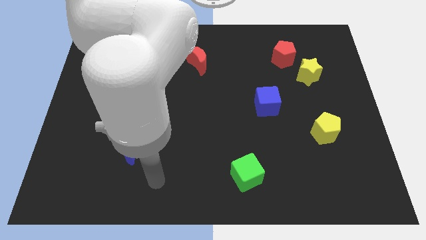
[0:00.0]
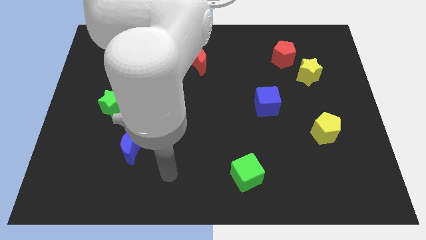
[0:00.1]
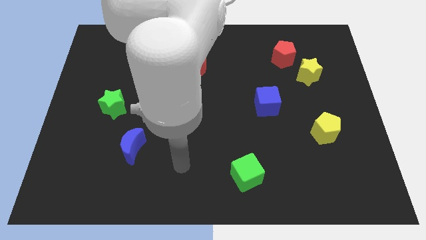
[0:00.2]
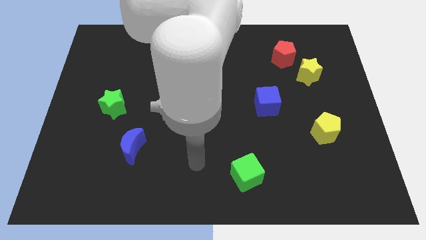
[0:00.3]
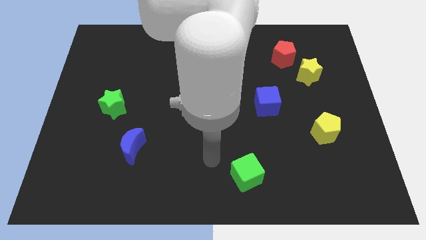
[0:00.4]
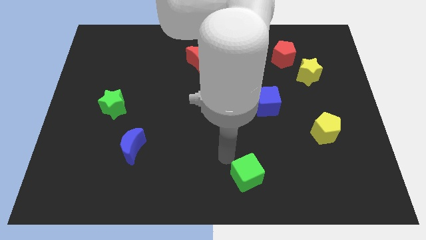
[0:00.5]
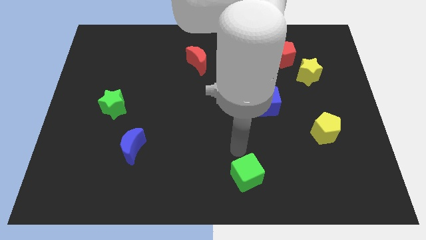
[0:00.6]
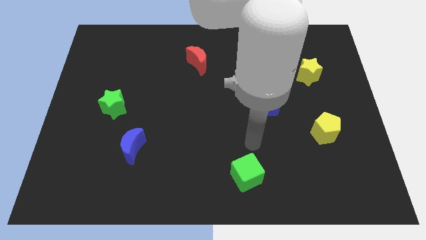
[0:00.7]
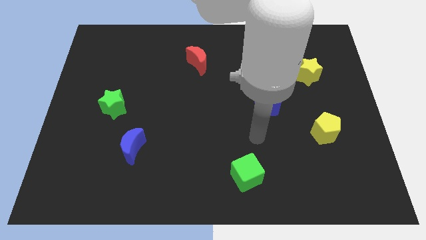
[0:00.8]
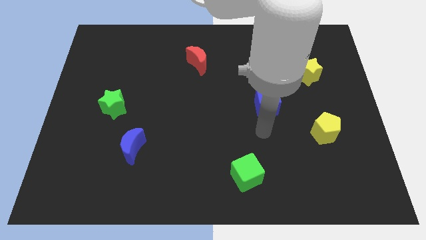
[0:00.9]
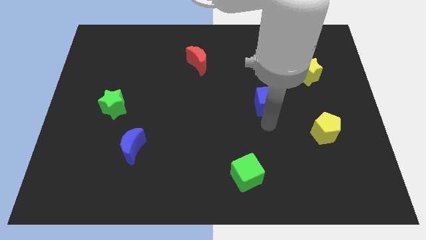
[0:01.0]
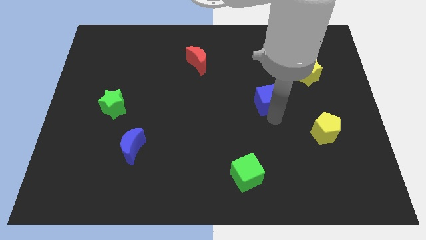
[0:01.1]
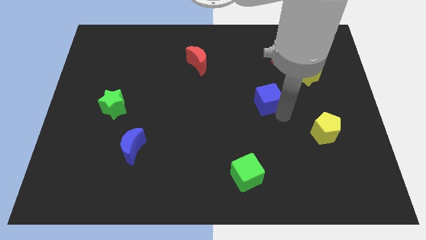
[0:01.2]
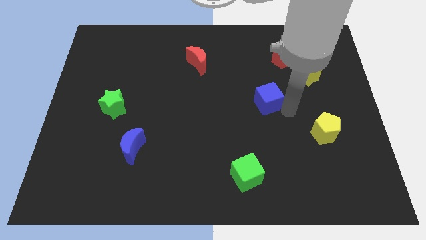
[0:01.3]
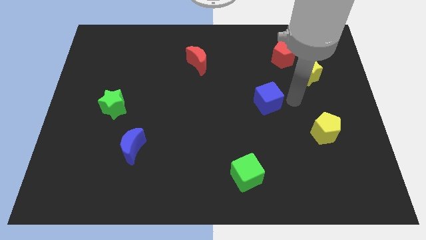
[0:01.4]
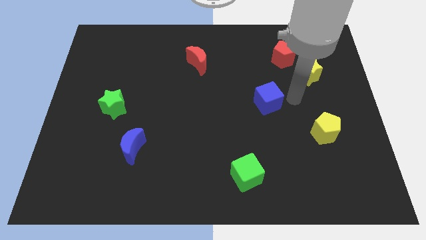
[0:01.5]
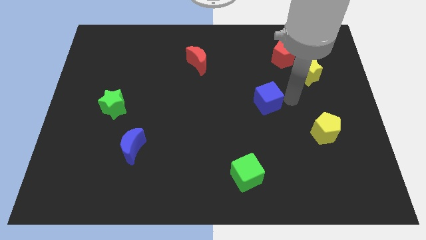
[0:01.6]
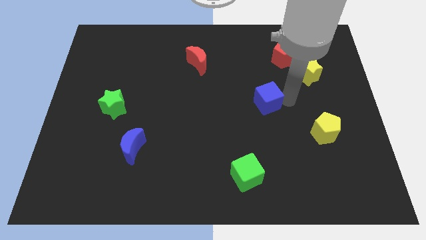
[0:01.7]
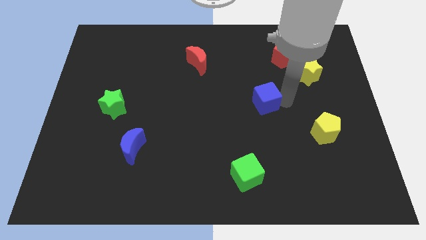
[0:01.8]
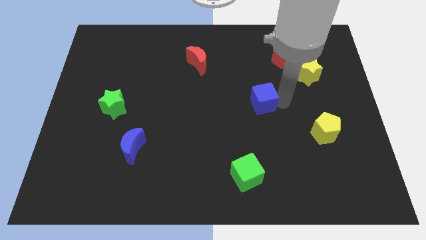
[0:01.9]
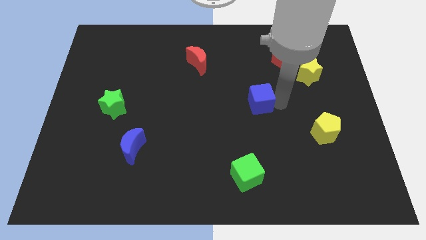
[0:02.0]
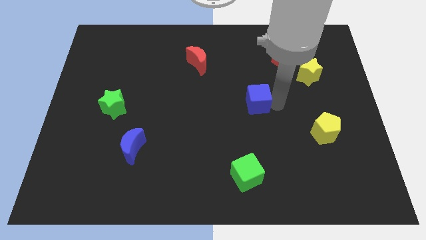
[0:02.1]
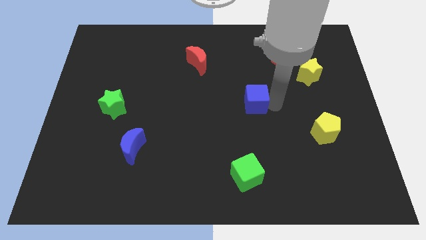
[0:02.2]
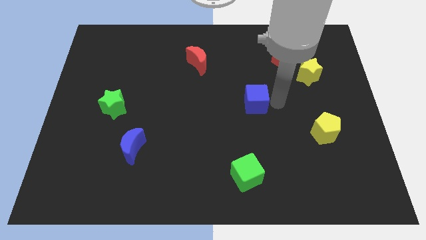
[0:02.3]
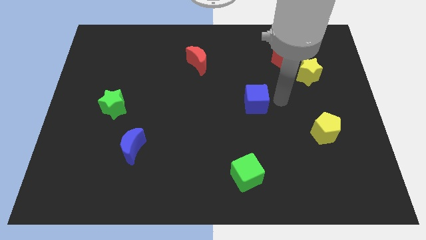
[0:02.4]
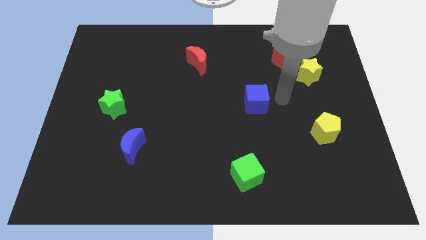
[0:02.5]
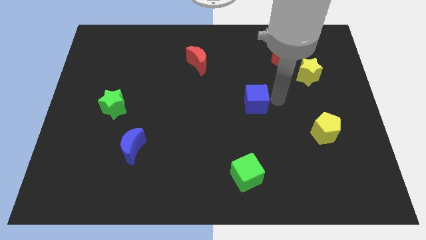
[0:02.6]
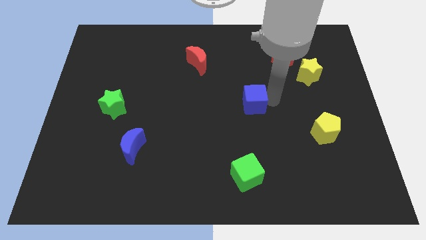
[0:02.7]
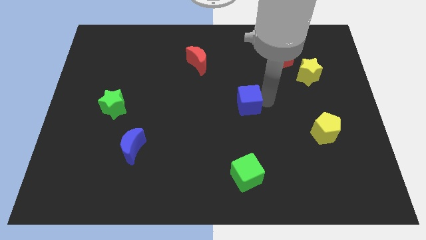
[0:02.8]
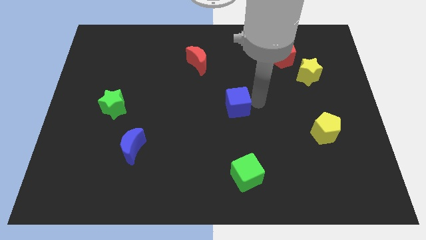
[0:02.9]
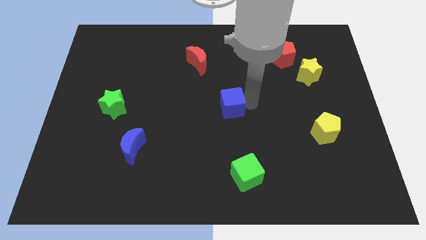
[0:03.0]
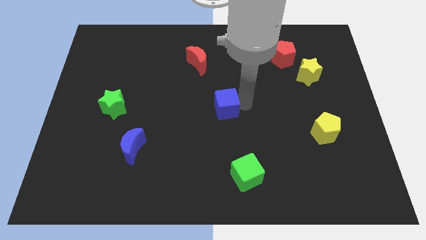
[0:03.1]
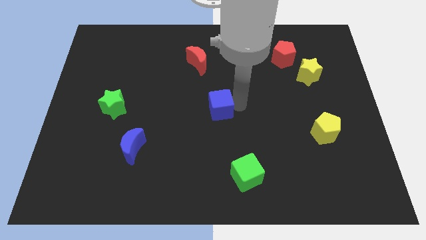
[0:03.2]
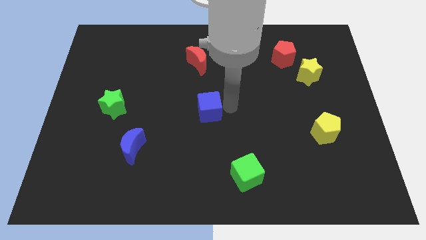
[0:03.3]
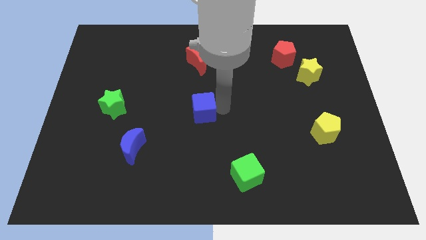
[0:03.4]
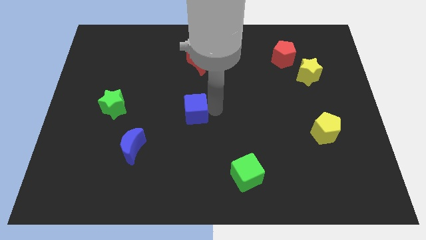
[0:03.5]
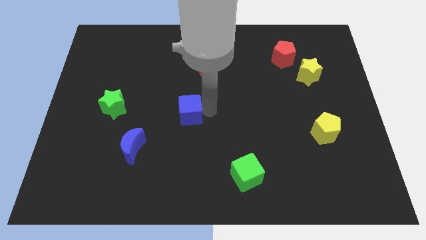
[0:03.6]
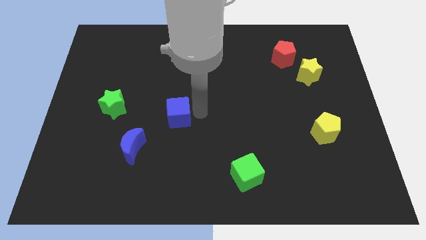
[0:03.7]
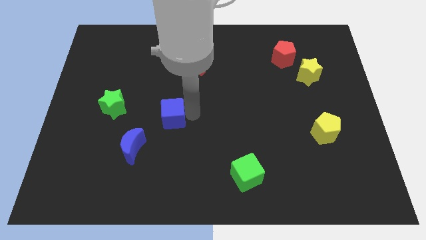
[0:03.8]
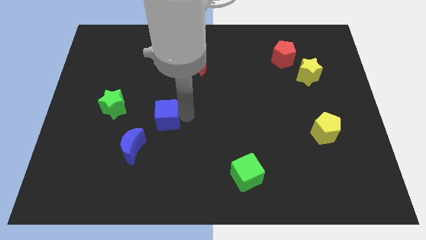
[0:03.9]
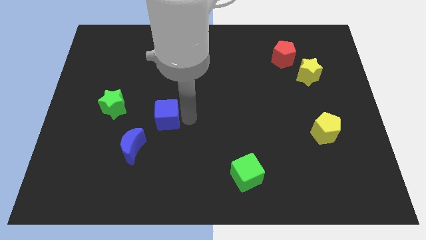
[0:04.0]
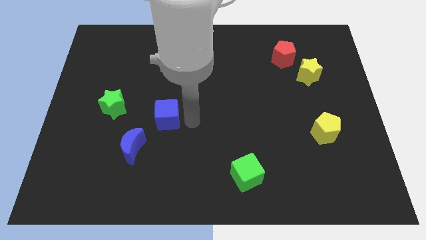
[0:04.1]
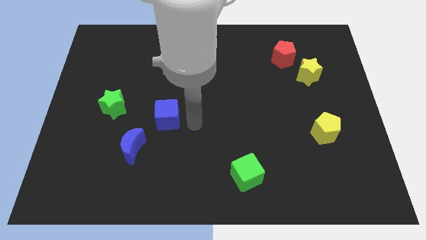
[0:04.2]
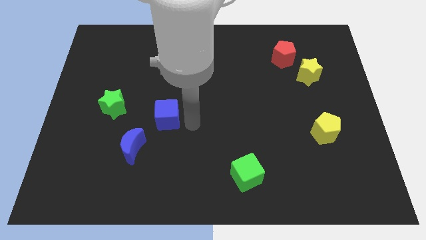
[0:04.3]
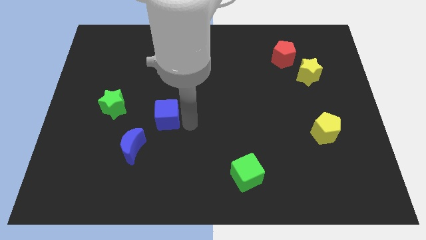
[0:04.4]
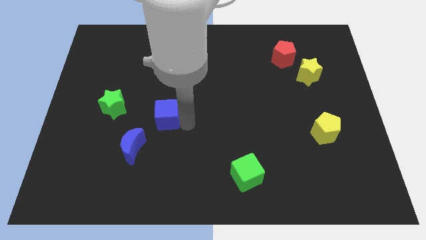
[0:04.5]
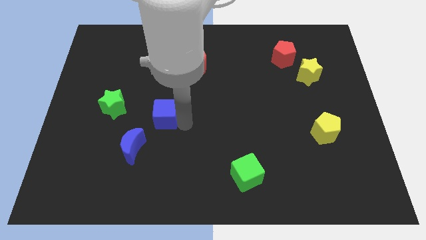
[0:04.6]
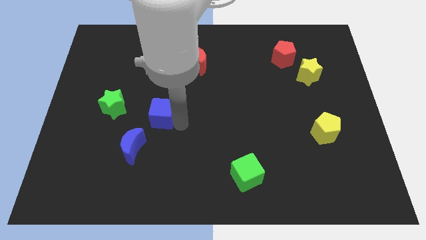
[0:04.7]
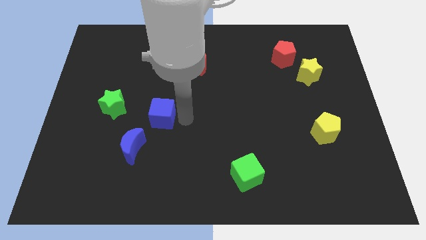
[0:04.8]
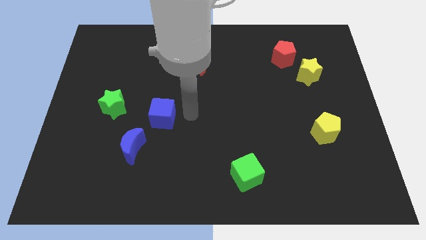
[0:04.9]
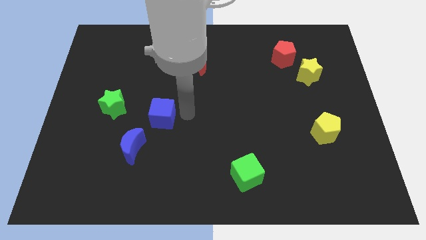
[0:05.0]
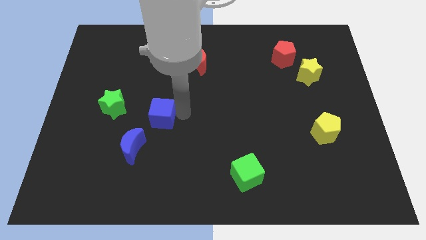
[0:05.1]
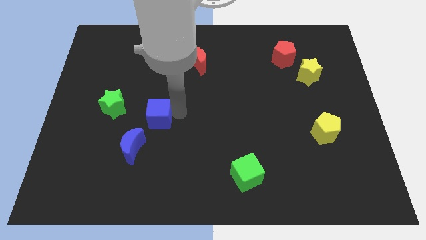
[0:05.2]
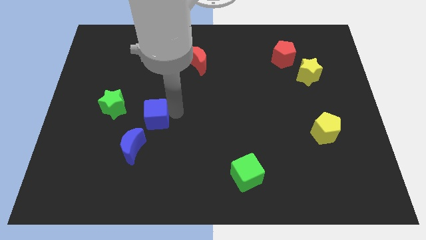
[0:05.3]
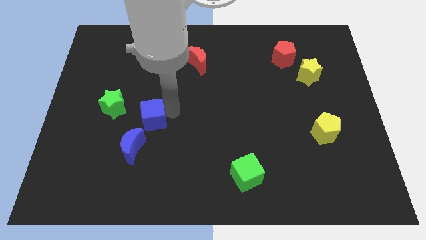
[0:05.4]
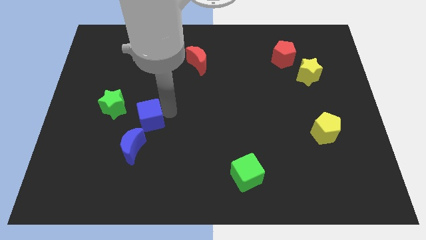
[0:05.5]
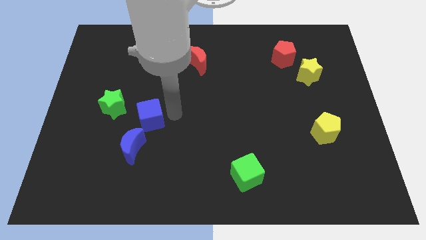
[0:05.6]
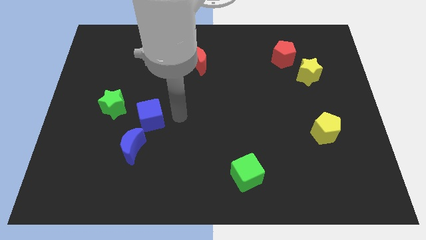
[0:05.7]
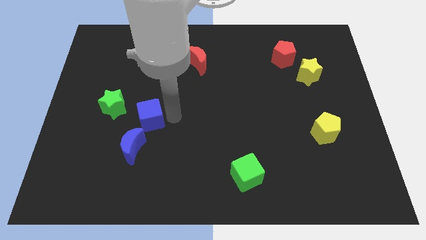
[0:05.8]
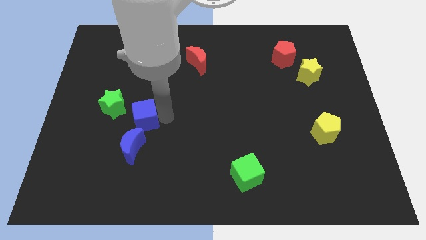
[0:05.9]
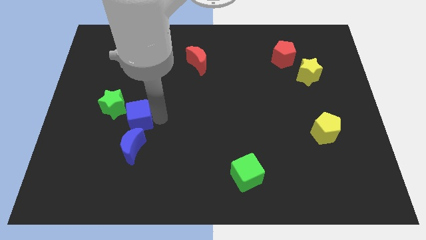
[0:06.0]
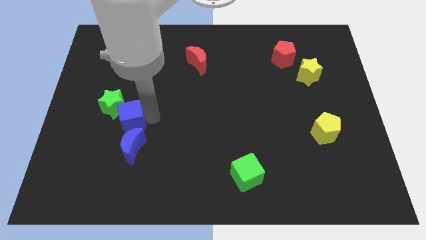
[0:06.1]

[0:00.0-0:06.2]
push the blue cube diagonally up and to the left of the blue moon
